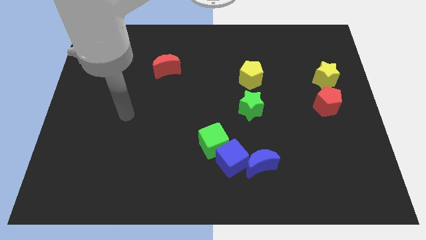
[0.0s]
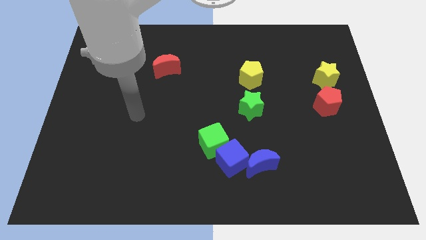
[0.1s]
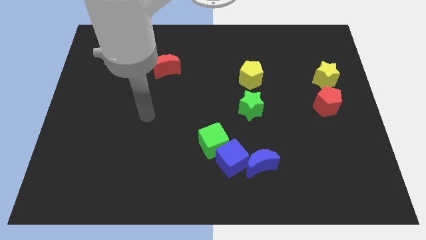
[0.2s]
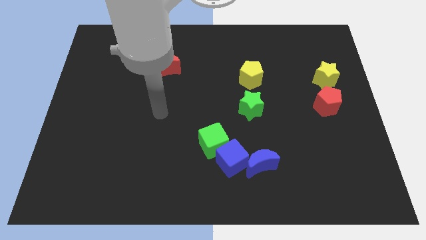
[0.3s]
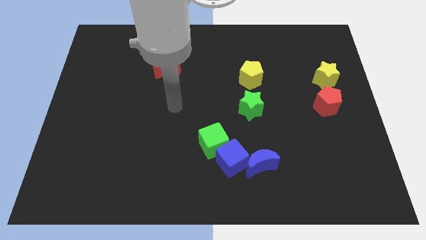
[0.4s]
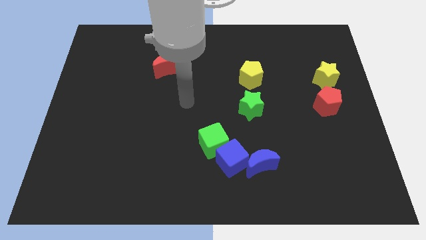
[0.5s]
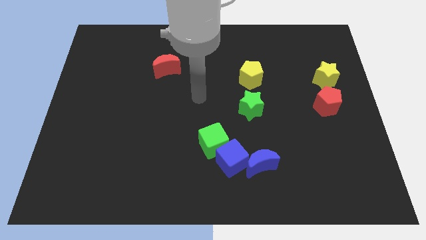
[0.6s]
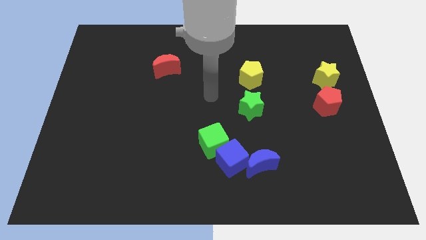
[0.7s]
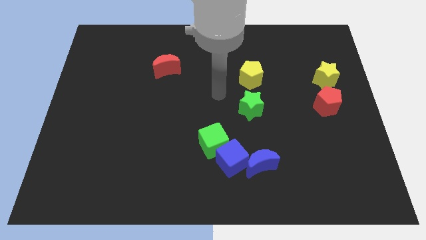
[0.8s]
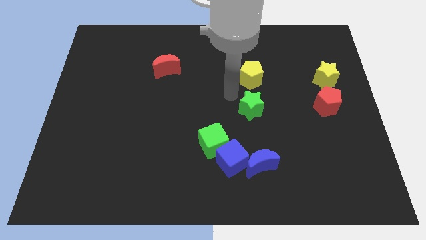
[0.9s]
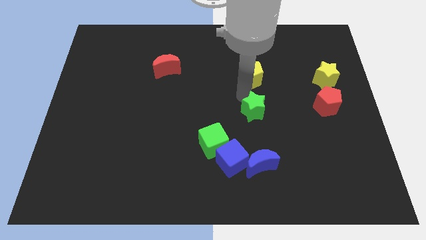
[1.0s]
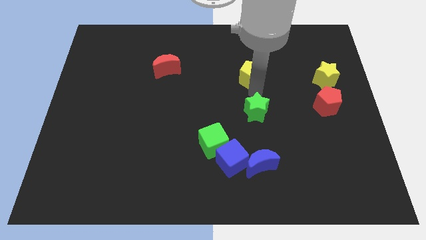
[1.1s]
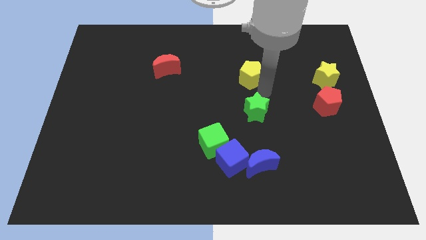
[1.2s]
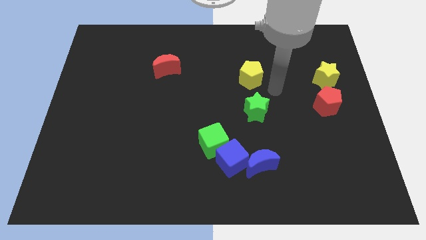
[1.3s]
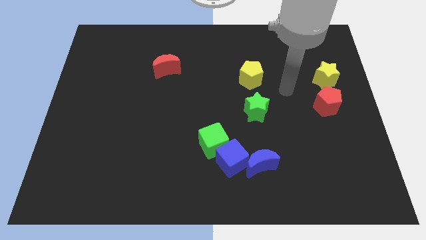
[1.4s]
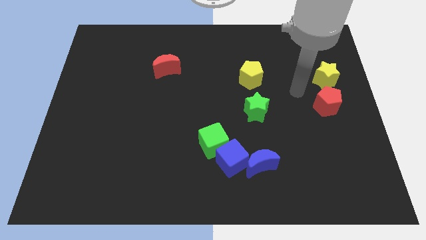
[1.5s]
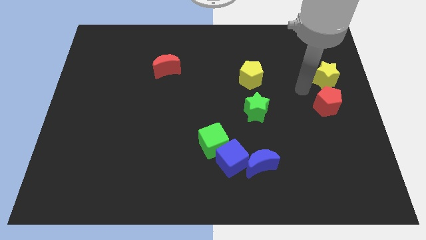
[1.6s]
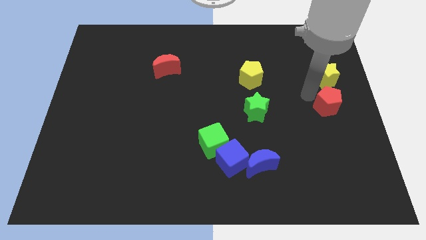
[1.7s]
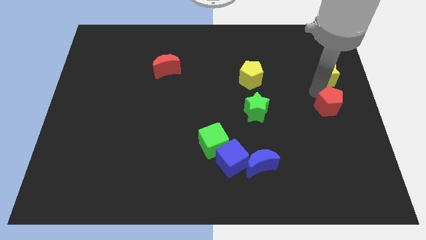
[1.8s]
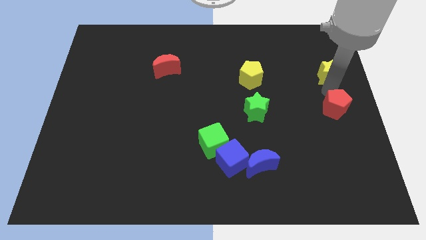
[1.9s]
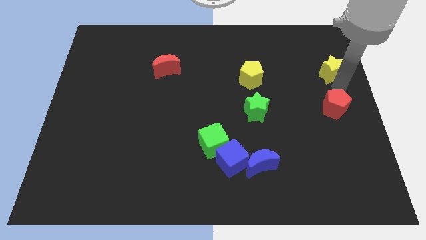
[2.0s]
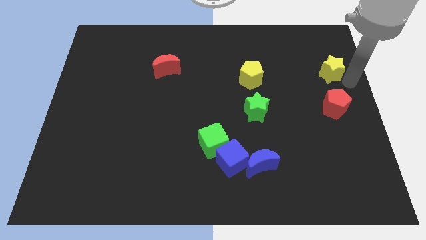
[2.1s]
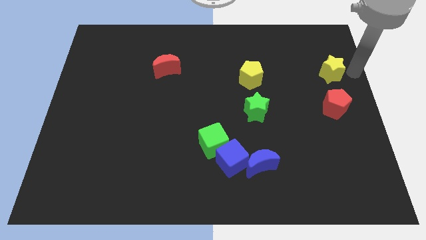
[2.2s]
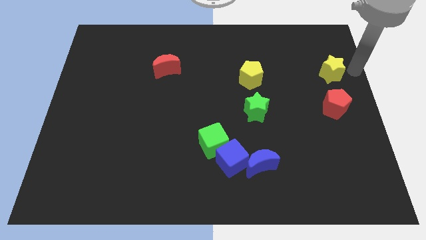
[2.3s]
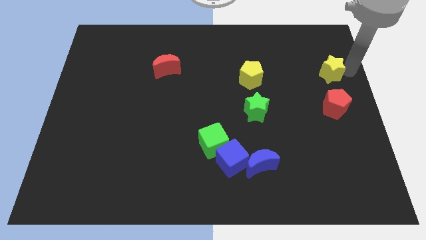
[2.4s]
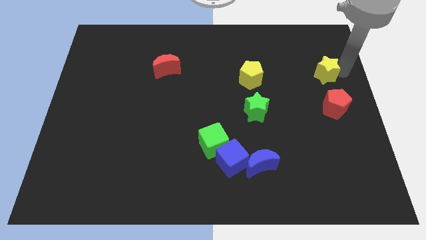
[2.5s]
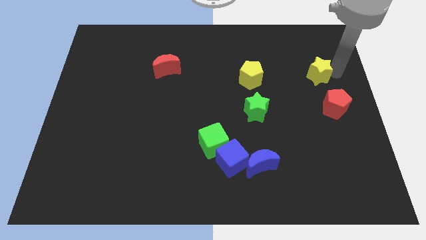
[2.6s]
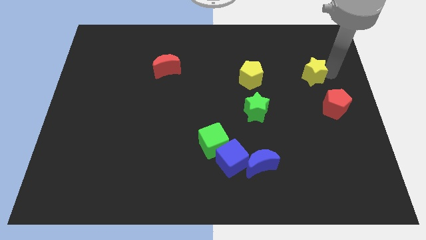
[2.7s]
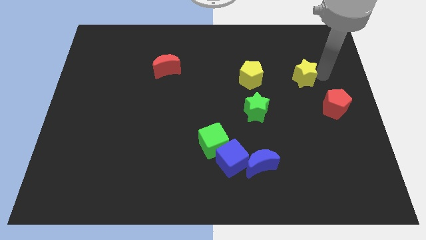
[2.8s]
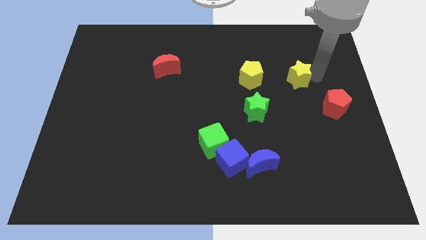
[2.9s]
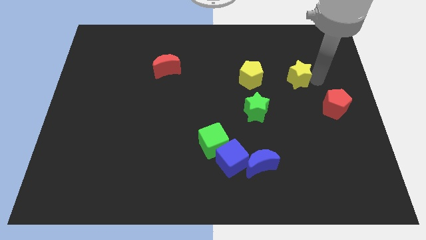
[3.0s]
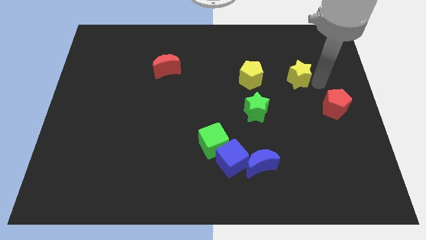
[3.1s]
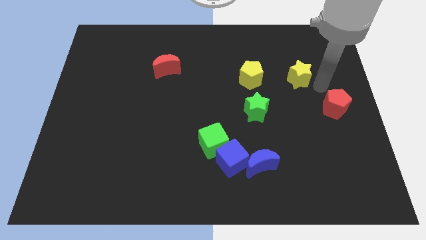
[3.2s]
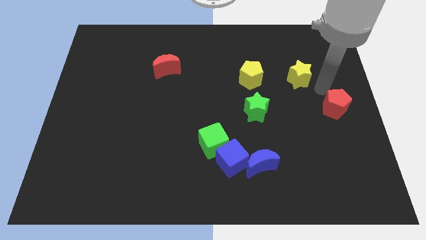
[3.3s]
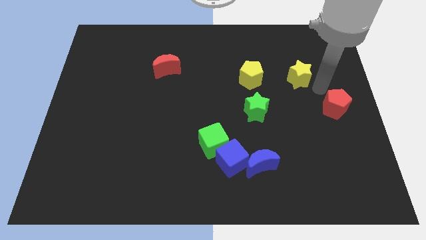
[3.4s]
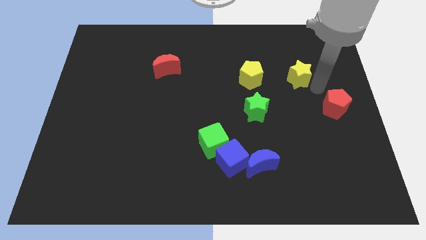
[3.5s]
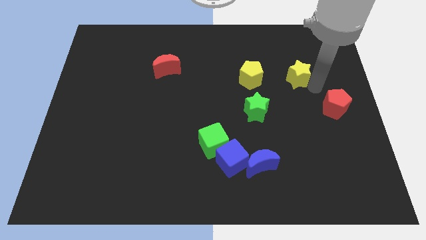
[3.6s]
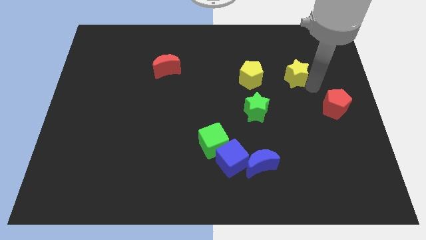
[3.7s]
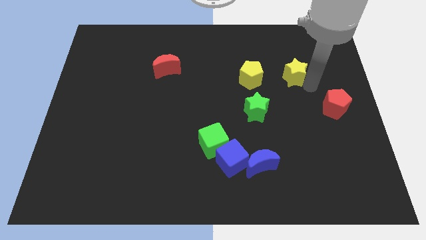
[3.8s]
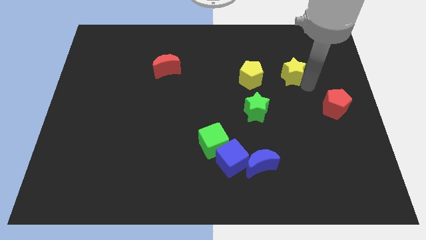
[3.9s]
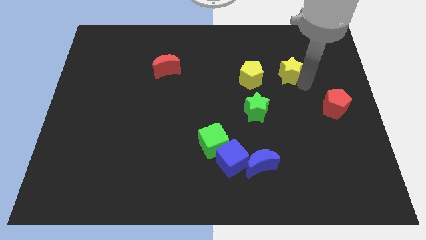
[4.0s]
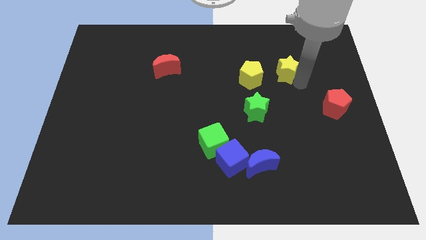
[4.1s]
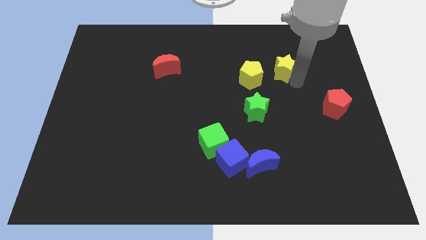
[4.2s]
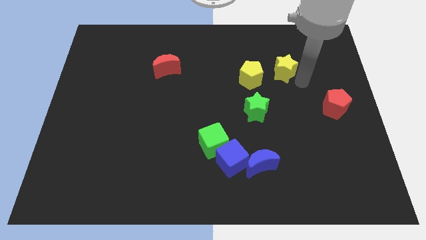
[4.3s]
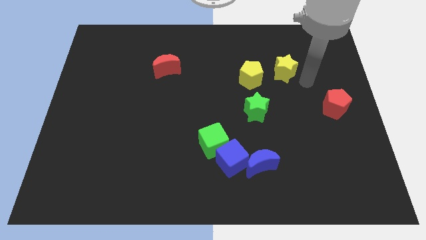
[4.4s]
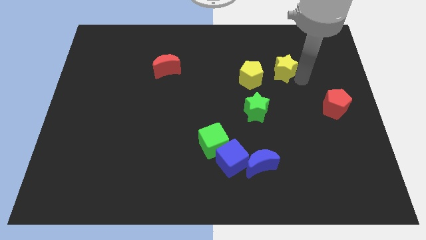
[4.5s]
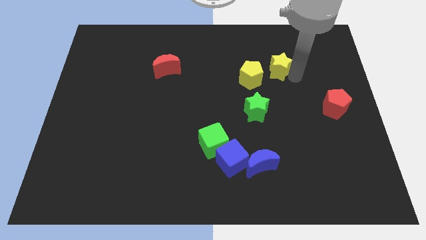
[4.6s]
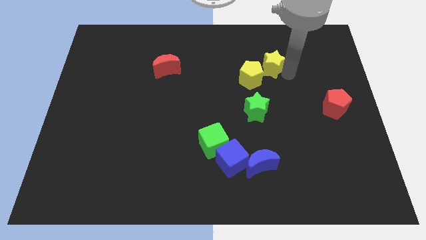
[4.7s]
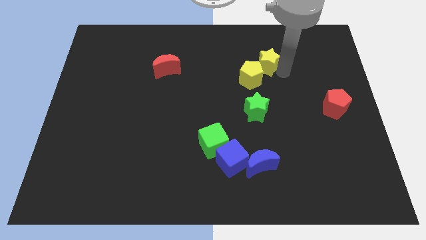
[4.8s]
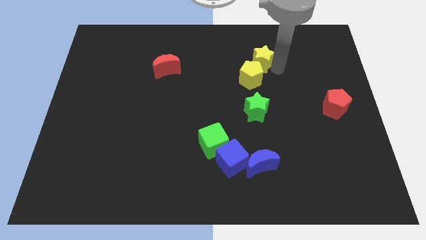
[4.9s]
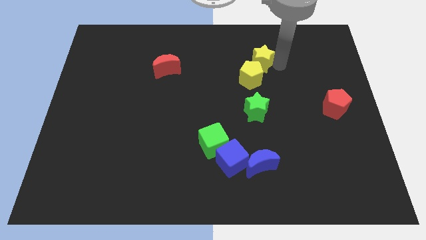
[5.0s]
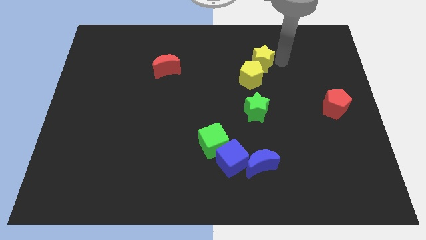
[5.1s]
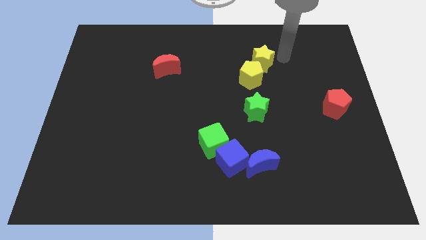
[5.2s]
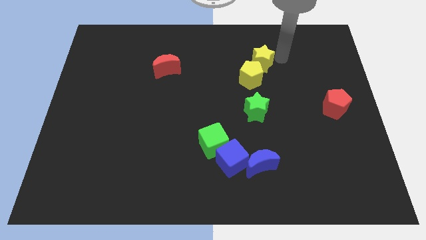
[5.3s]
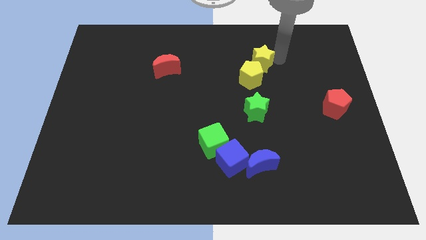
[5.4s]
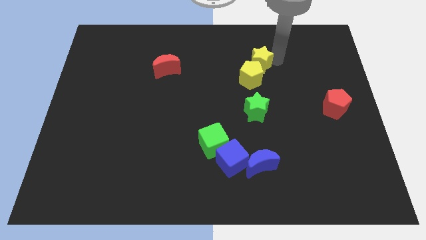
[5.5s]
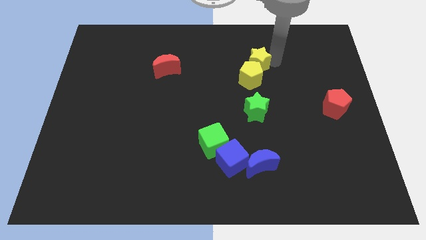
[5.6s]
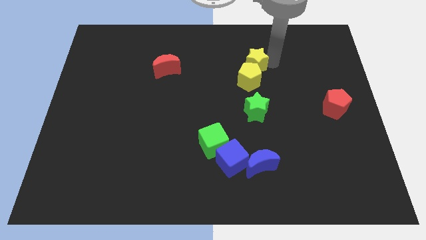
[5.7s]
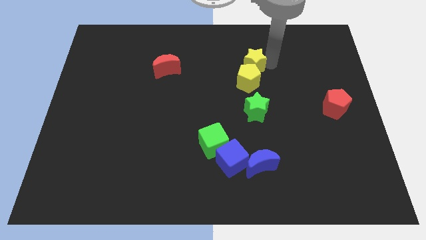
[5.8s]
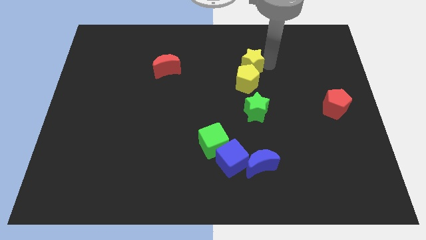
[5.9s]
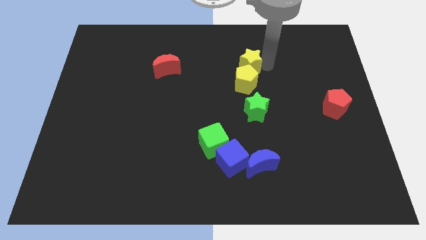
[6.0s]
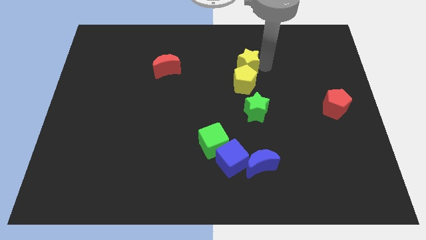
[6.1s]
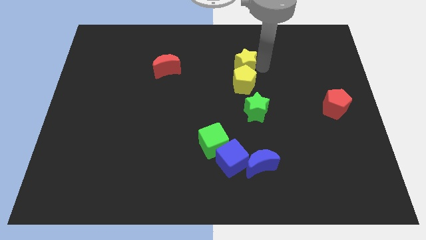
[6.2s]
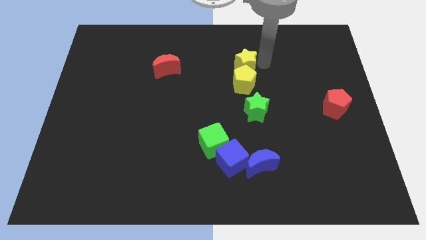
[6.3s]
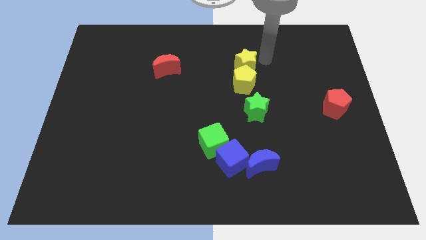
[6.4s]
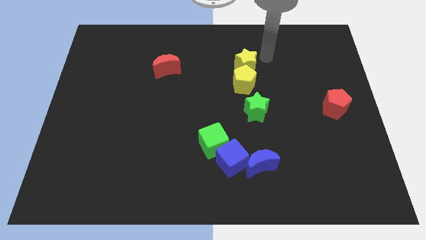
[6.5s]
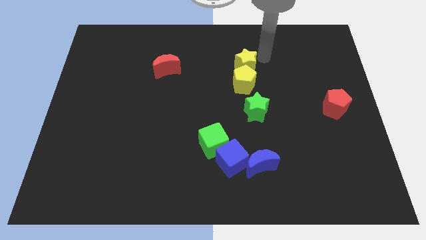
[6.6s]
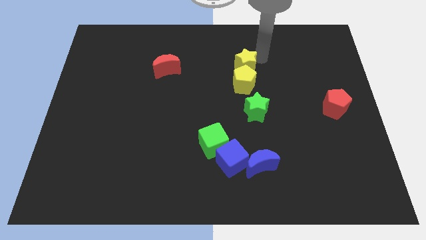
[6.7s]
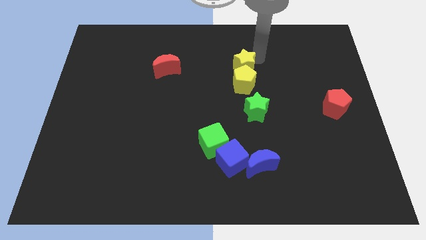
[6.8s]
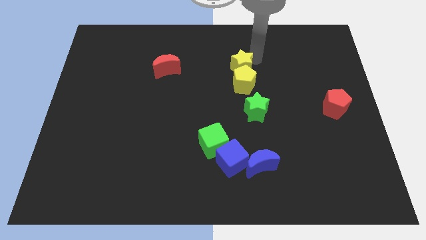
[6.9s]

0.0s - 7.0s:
move the yellow star left

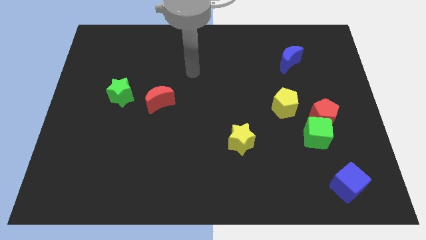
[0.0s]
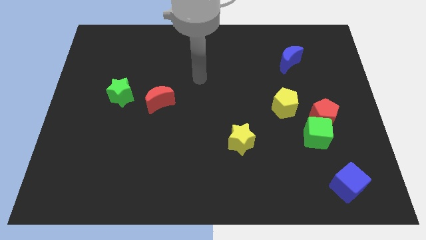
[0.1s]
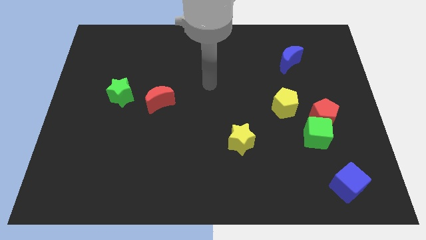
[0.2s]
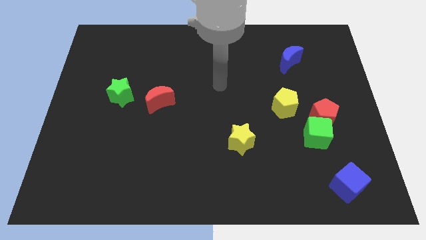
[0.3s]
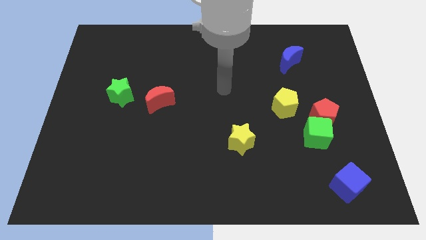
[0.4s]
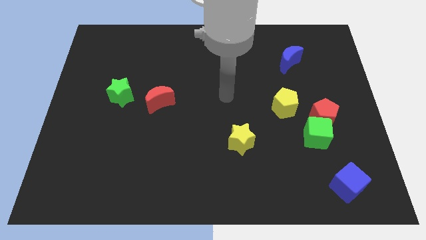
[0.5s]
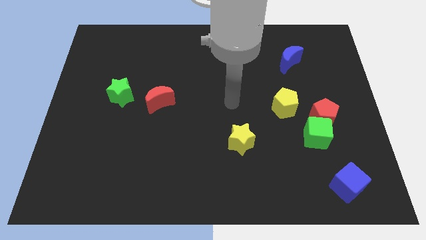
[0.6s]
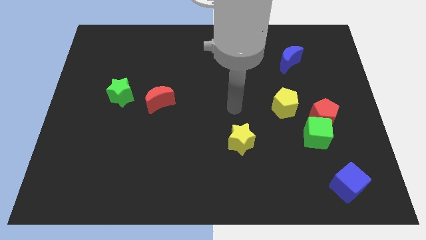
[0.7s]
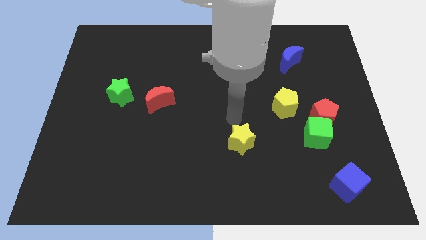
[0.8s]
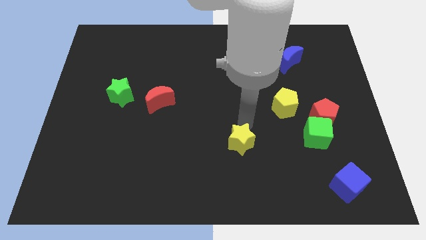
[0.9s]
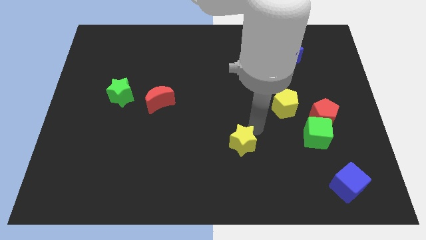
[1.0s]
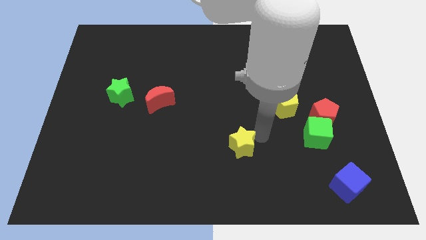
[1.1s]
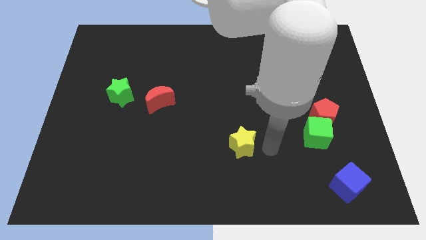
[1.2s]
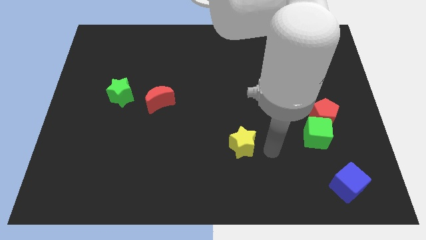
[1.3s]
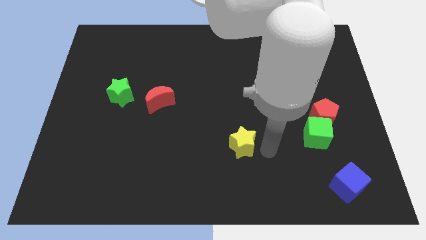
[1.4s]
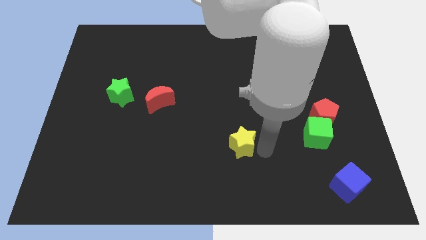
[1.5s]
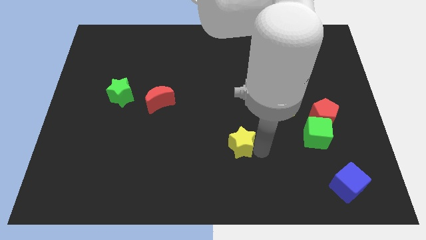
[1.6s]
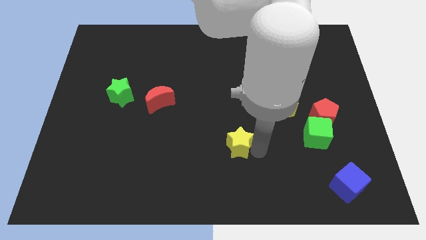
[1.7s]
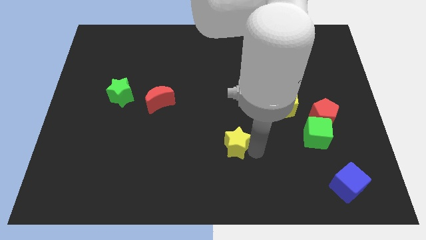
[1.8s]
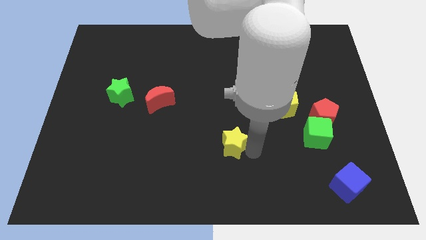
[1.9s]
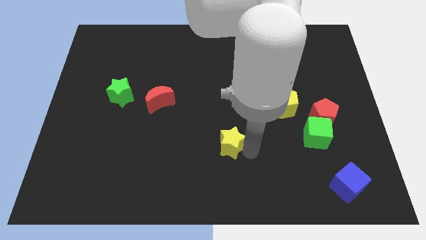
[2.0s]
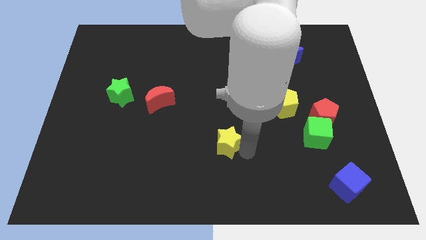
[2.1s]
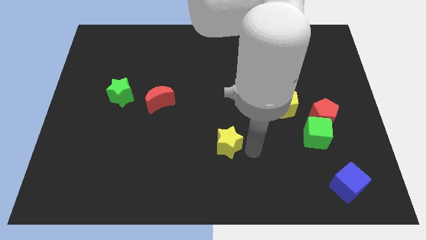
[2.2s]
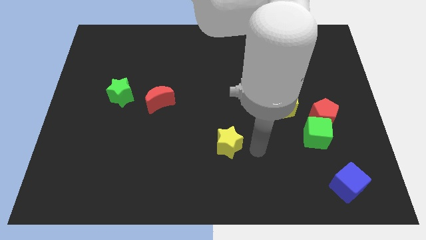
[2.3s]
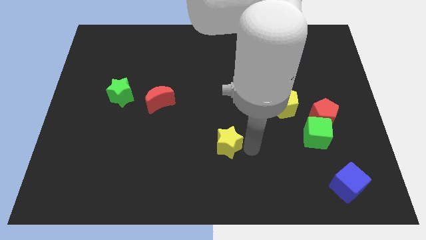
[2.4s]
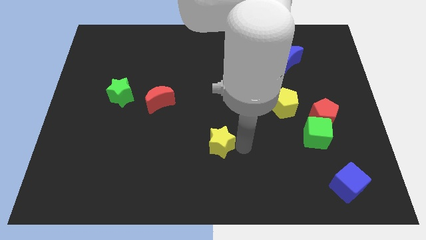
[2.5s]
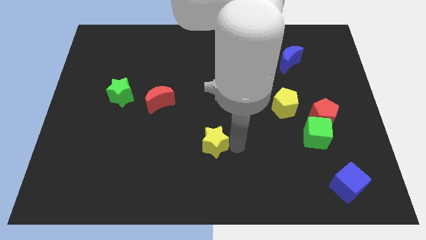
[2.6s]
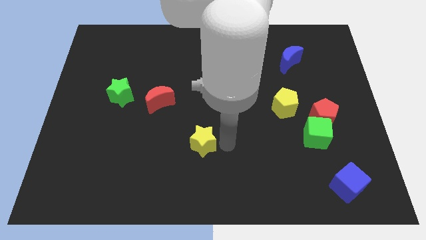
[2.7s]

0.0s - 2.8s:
slightly slide the yellow star left
